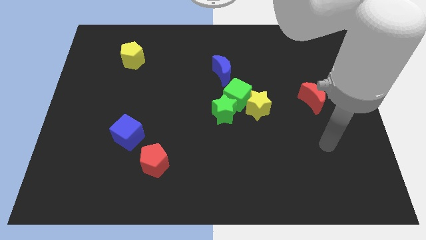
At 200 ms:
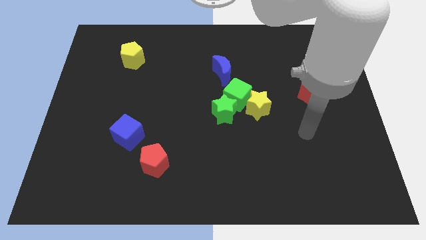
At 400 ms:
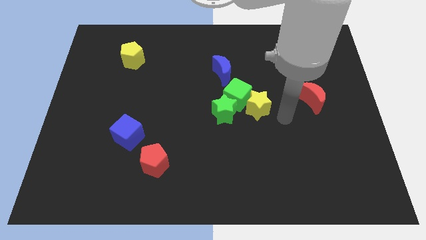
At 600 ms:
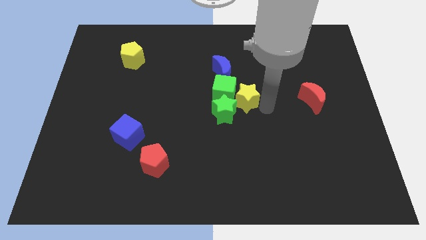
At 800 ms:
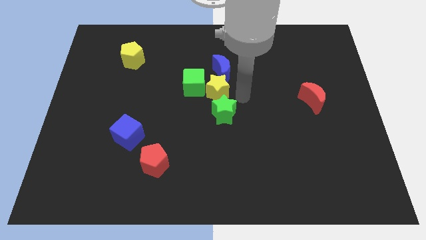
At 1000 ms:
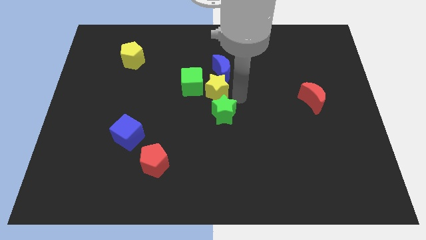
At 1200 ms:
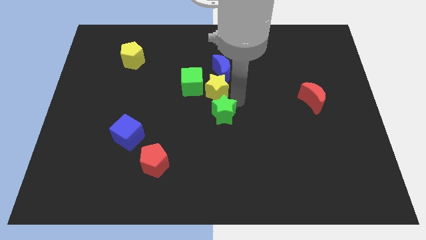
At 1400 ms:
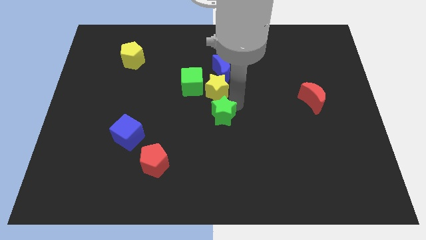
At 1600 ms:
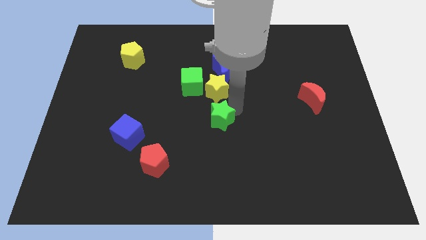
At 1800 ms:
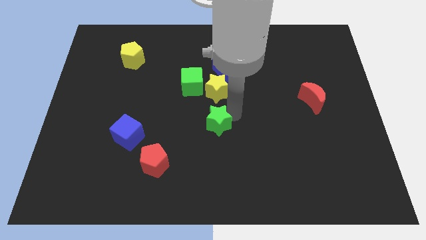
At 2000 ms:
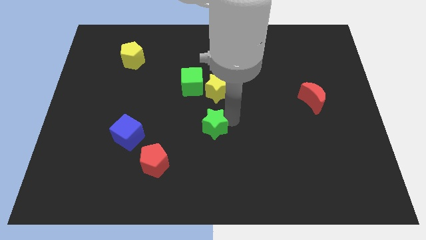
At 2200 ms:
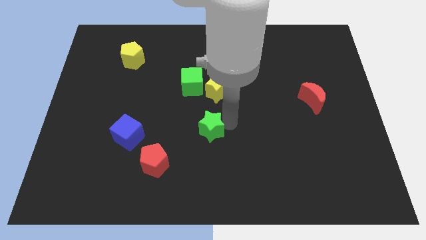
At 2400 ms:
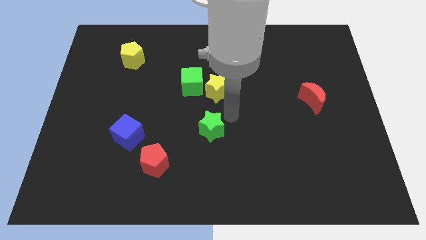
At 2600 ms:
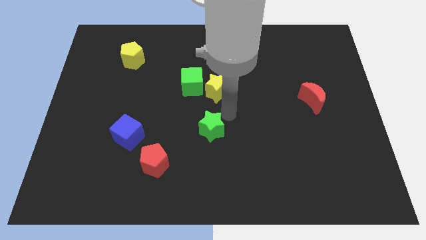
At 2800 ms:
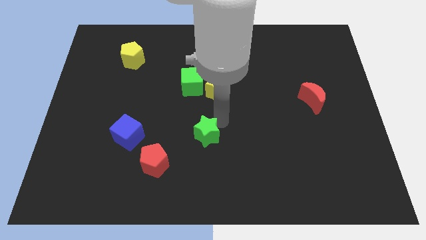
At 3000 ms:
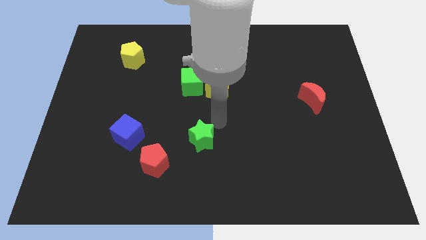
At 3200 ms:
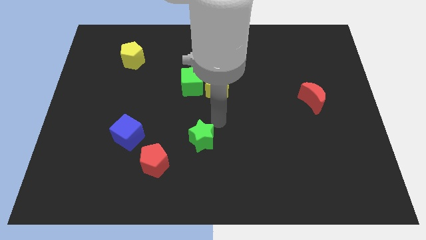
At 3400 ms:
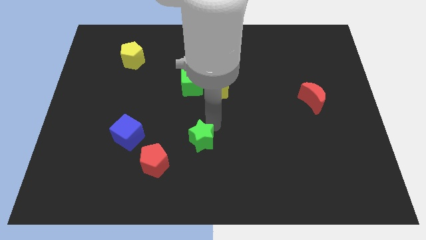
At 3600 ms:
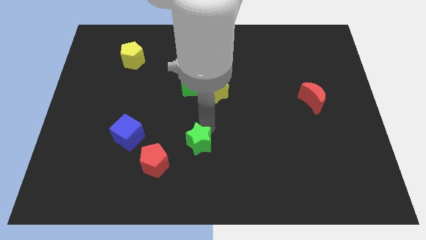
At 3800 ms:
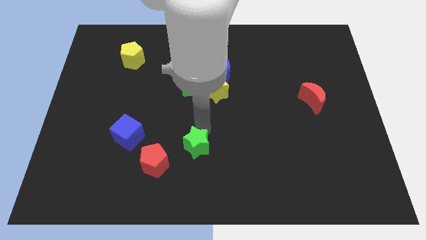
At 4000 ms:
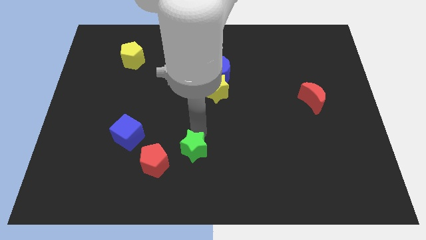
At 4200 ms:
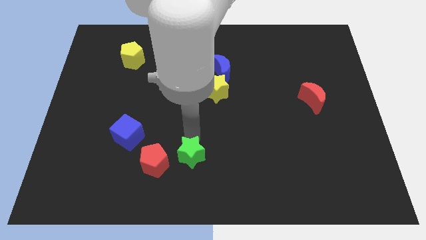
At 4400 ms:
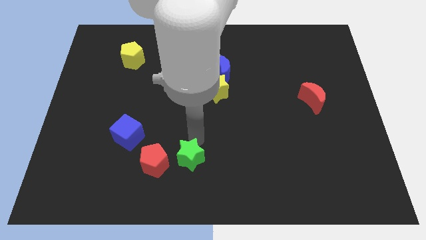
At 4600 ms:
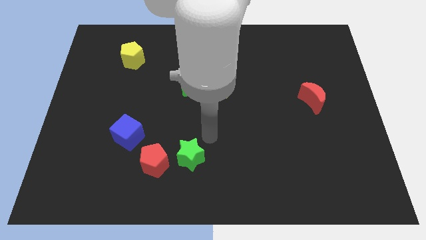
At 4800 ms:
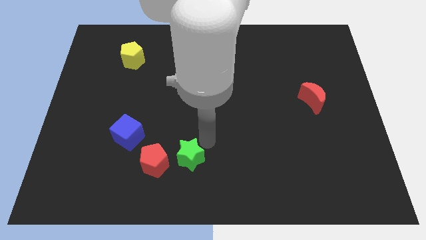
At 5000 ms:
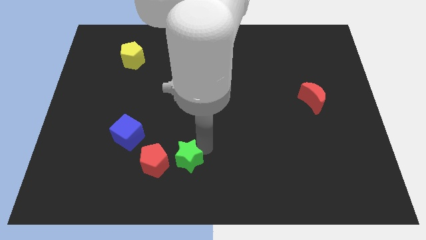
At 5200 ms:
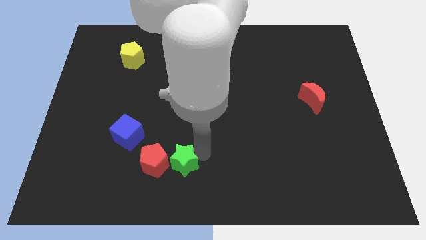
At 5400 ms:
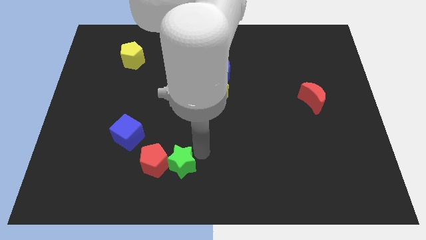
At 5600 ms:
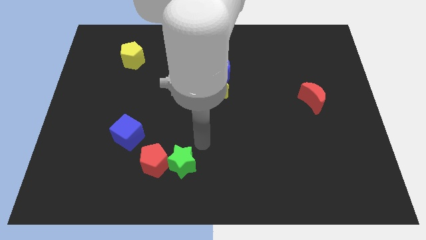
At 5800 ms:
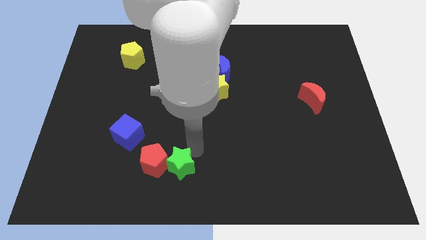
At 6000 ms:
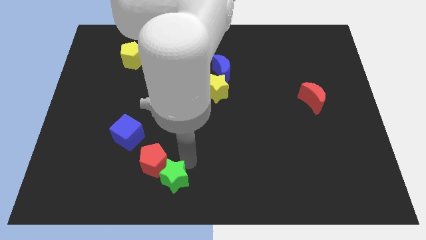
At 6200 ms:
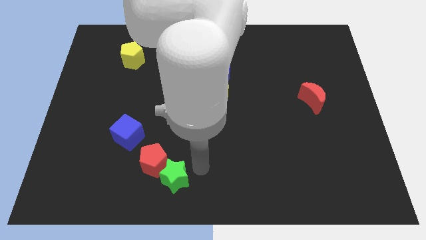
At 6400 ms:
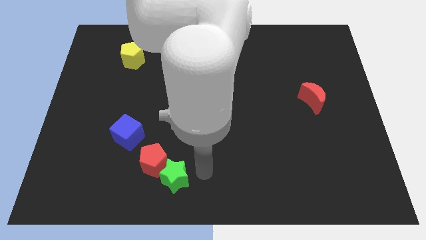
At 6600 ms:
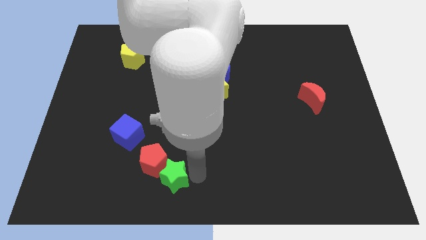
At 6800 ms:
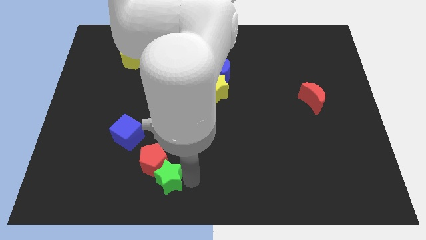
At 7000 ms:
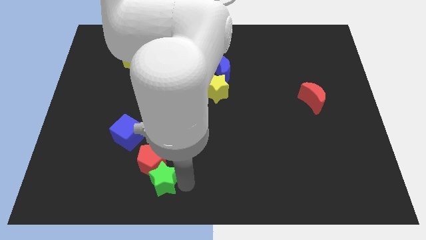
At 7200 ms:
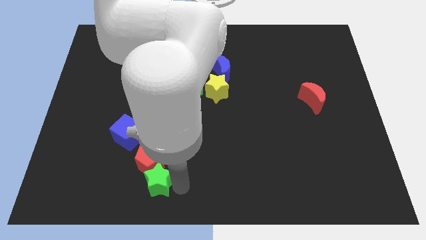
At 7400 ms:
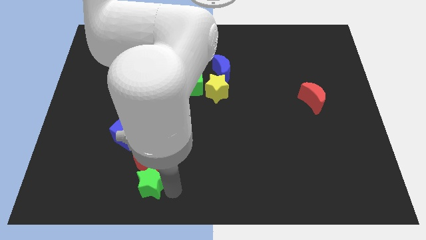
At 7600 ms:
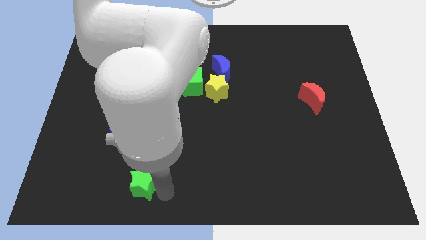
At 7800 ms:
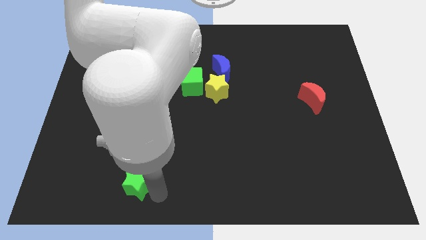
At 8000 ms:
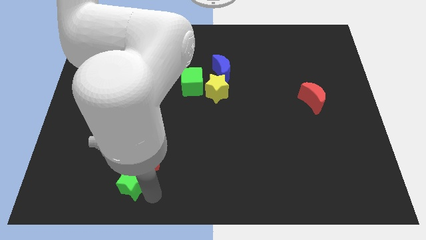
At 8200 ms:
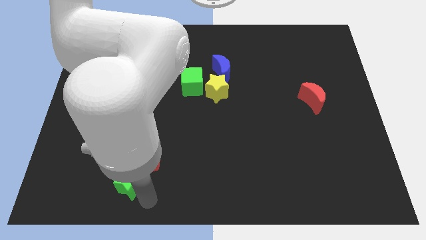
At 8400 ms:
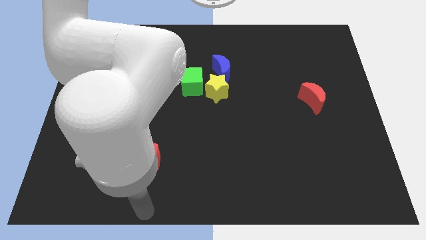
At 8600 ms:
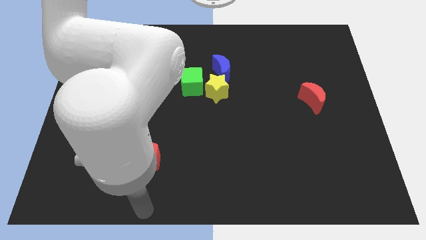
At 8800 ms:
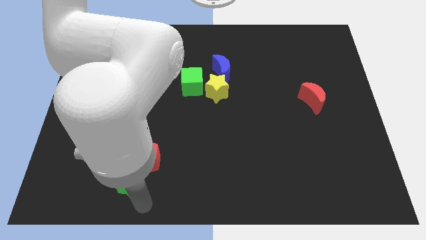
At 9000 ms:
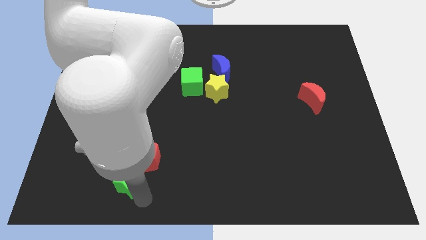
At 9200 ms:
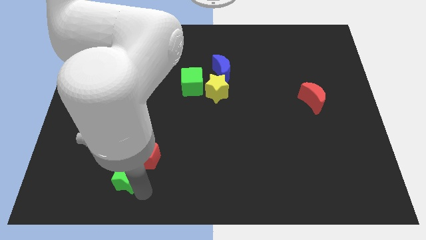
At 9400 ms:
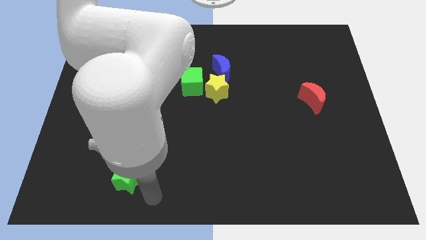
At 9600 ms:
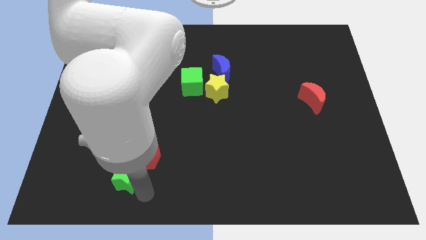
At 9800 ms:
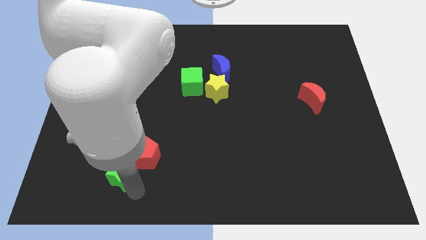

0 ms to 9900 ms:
put the green star left of the red pentagon

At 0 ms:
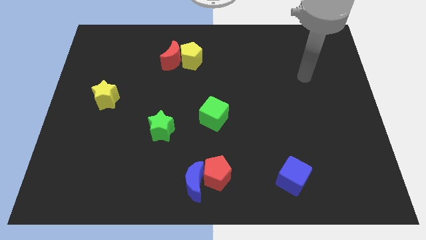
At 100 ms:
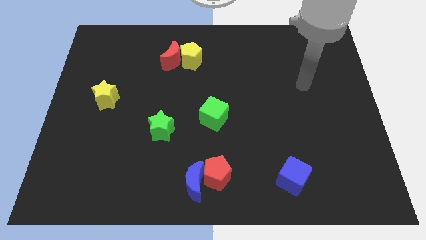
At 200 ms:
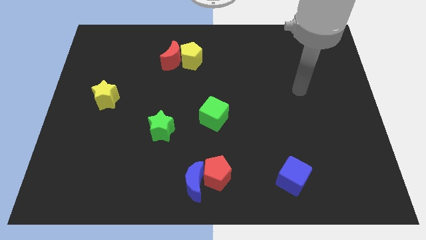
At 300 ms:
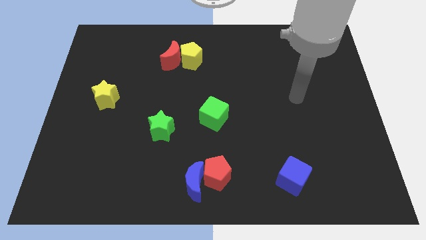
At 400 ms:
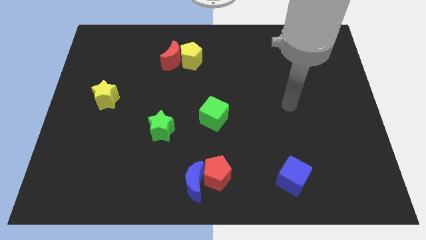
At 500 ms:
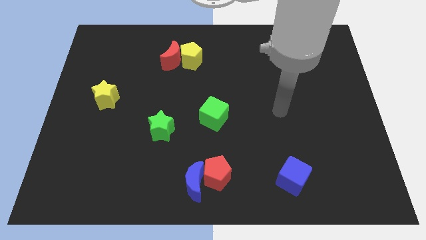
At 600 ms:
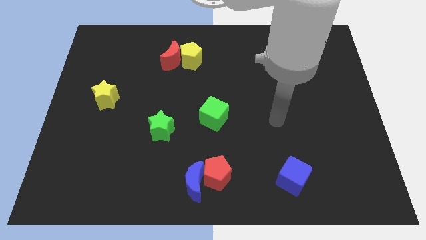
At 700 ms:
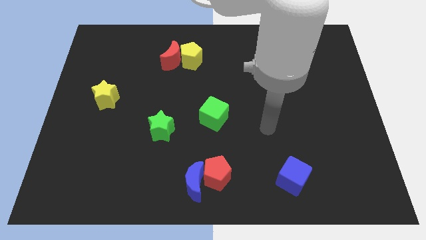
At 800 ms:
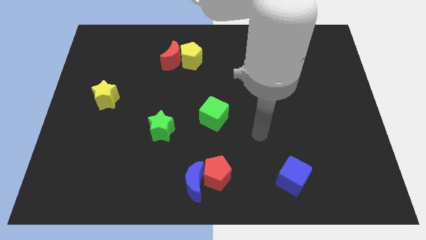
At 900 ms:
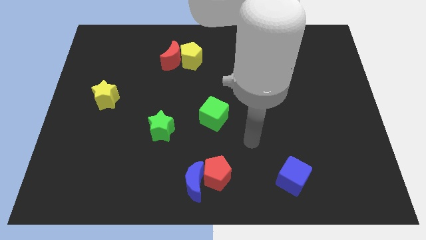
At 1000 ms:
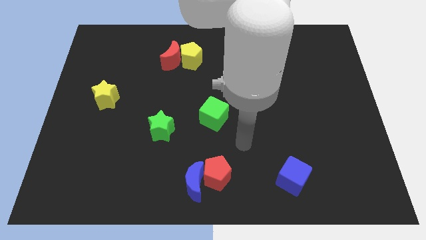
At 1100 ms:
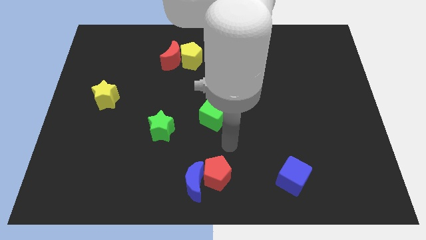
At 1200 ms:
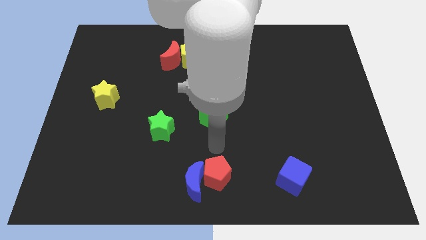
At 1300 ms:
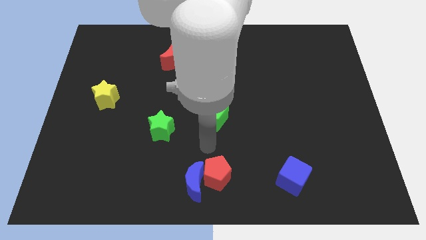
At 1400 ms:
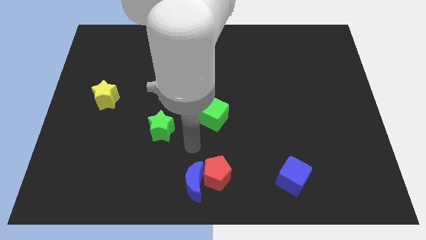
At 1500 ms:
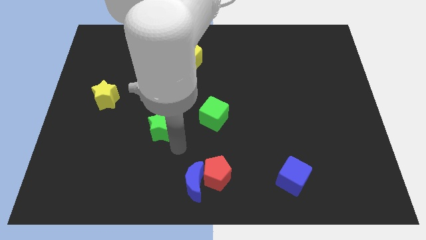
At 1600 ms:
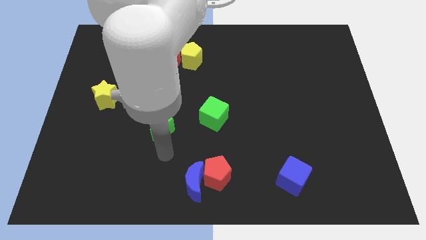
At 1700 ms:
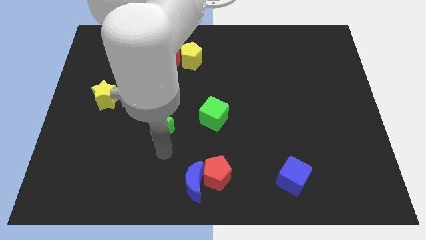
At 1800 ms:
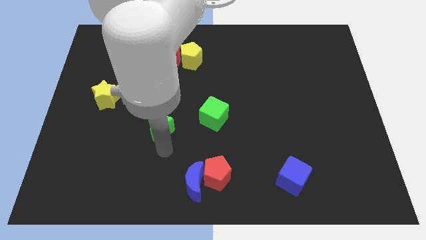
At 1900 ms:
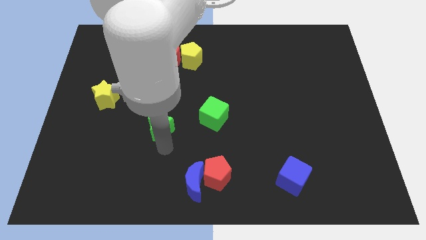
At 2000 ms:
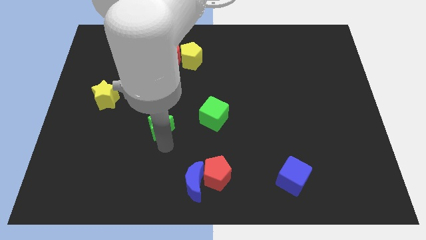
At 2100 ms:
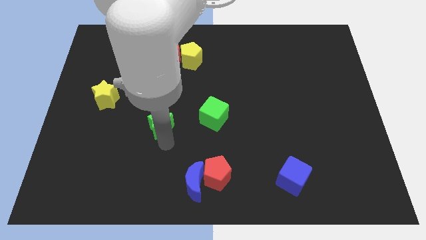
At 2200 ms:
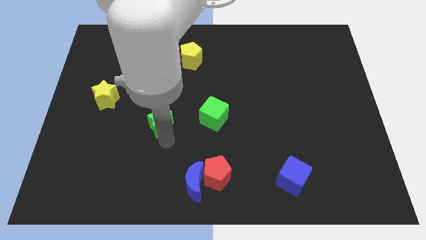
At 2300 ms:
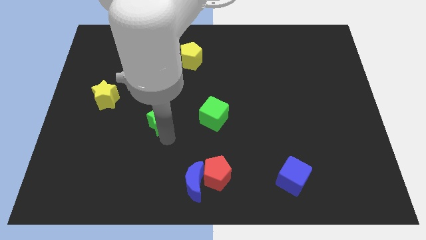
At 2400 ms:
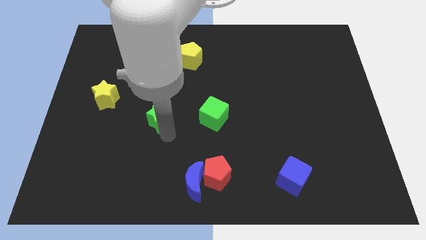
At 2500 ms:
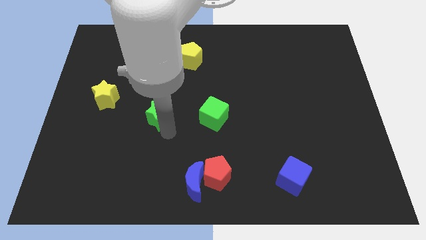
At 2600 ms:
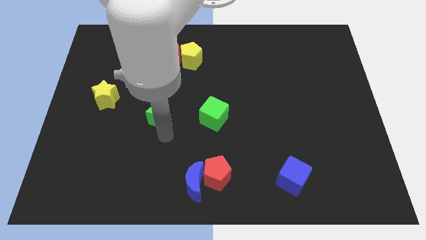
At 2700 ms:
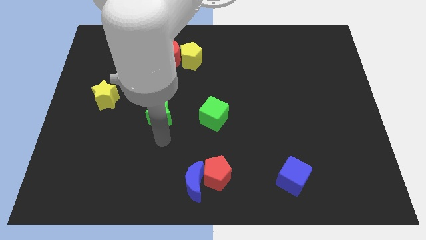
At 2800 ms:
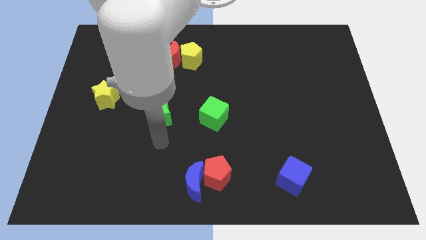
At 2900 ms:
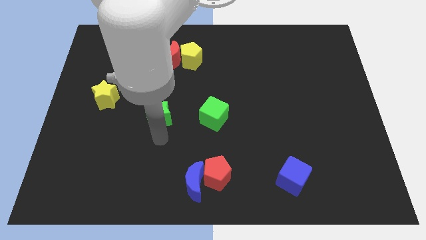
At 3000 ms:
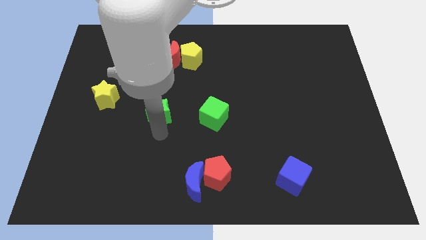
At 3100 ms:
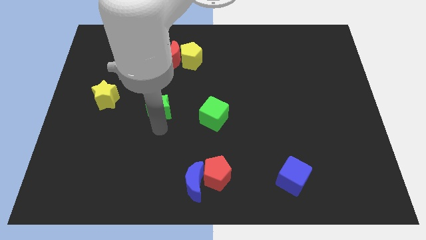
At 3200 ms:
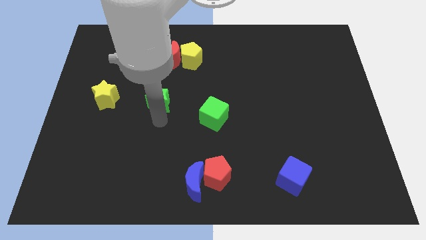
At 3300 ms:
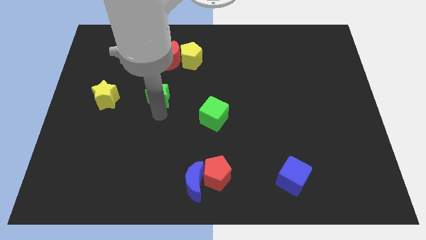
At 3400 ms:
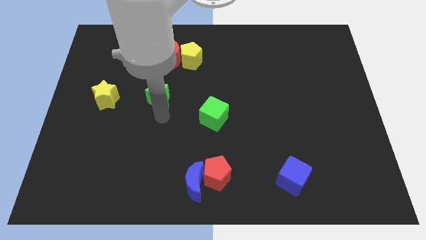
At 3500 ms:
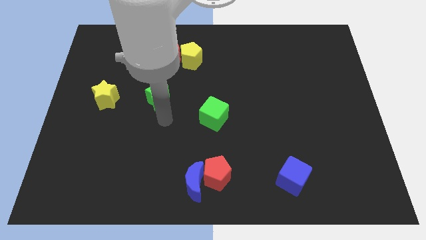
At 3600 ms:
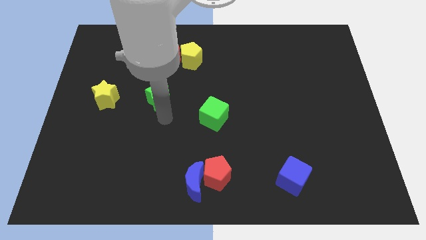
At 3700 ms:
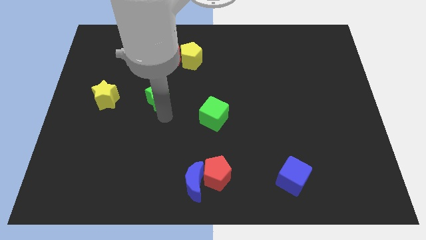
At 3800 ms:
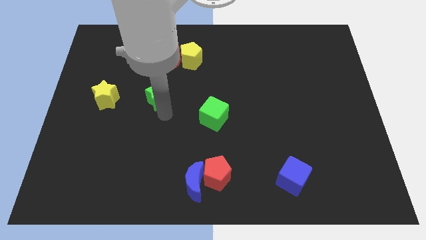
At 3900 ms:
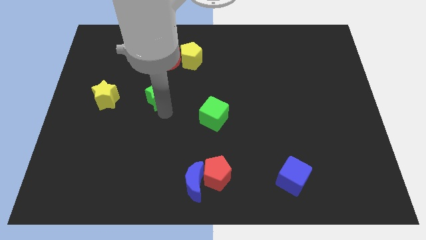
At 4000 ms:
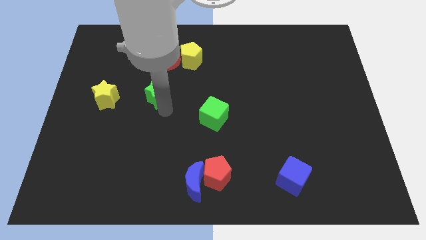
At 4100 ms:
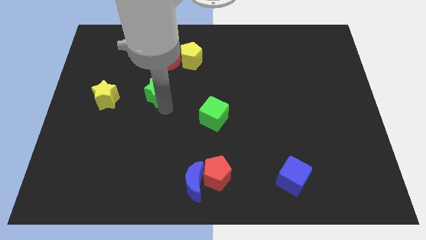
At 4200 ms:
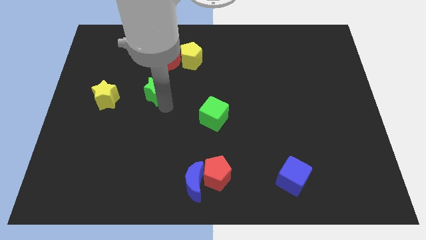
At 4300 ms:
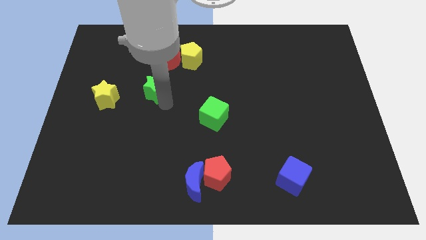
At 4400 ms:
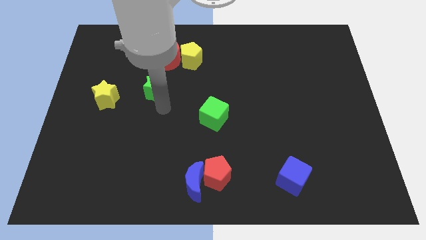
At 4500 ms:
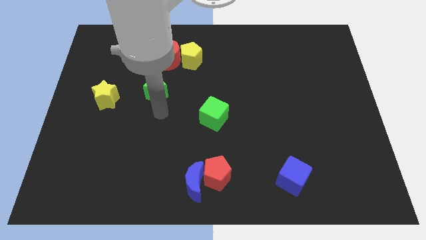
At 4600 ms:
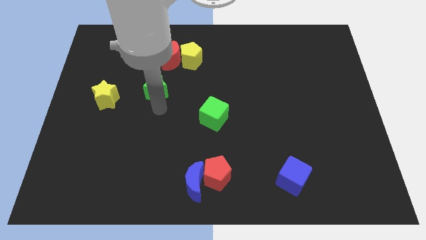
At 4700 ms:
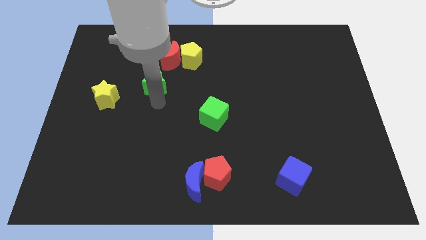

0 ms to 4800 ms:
put the green star to the bottom left of the red moon
